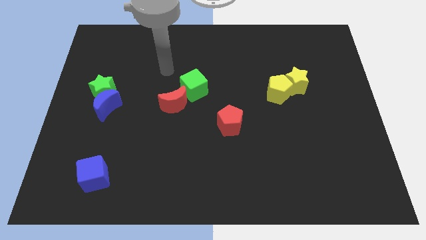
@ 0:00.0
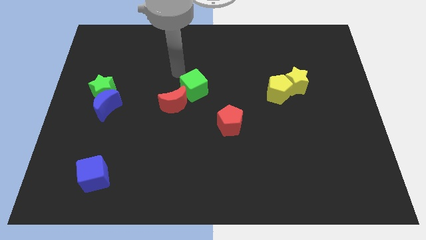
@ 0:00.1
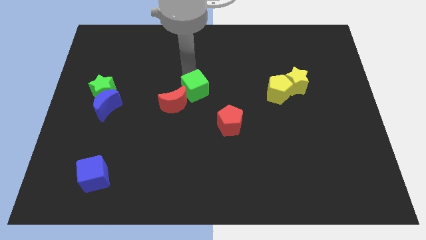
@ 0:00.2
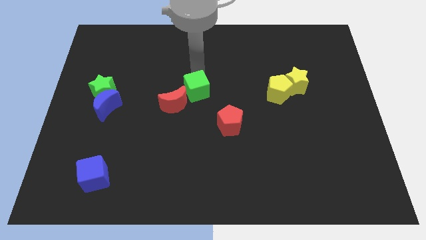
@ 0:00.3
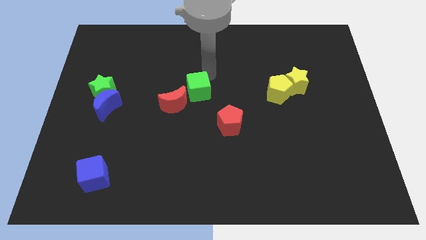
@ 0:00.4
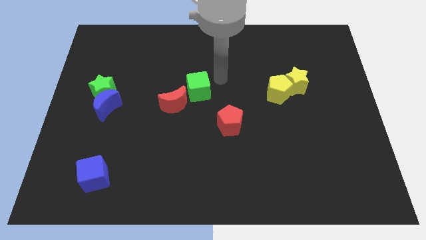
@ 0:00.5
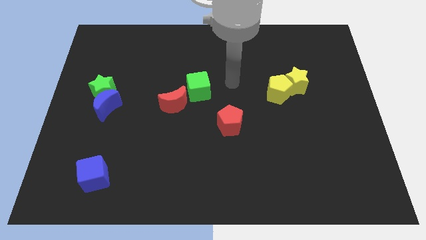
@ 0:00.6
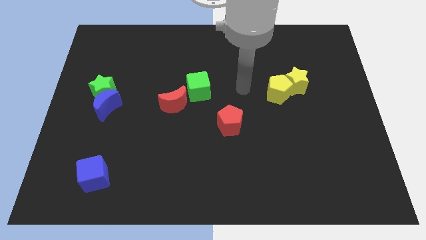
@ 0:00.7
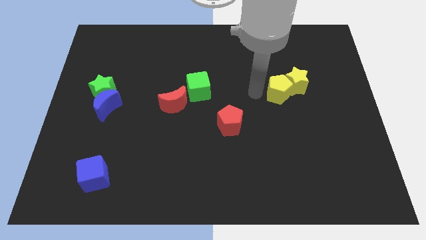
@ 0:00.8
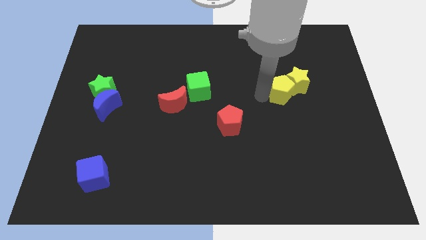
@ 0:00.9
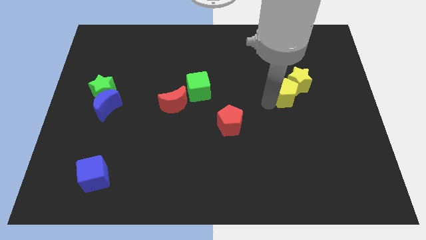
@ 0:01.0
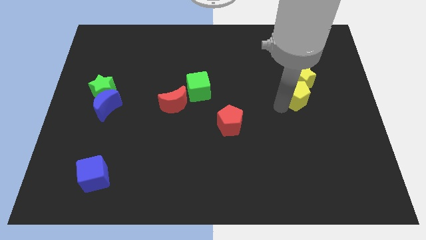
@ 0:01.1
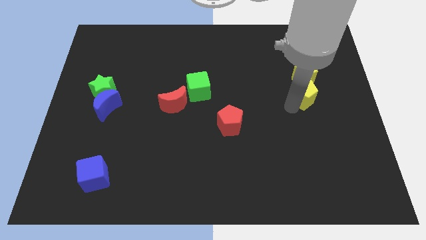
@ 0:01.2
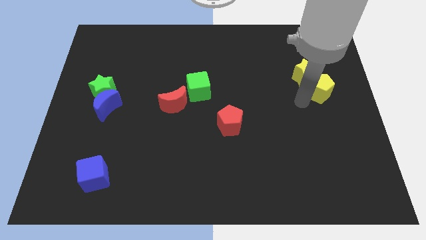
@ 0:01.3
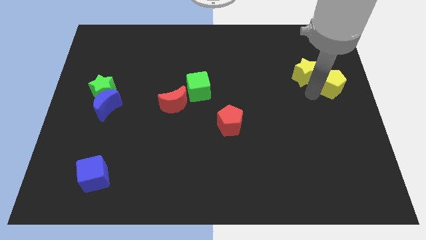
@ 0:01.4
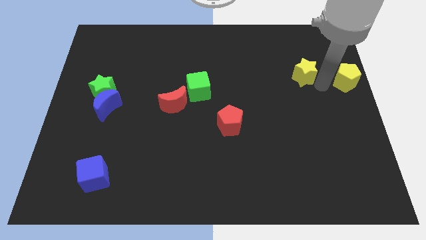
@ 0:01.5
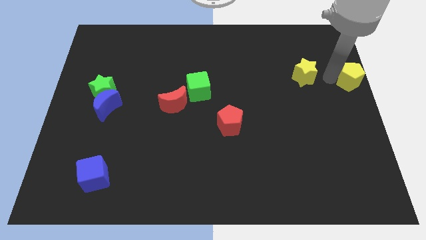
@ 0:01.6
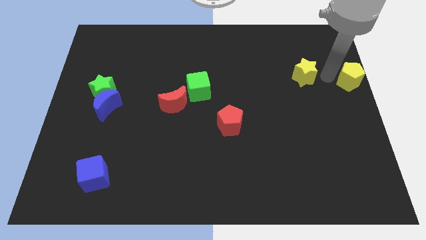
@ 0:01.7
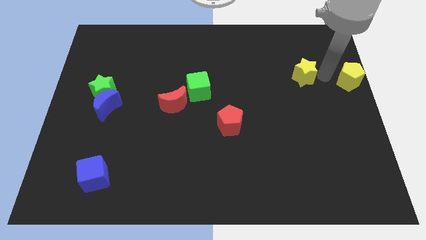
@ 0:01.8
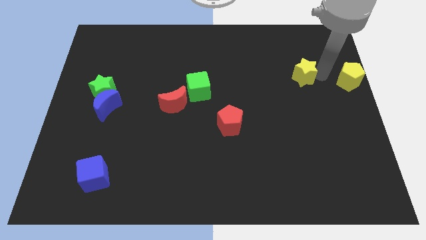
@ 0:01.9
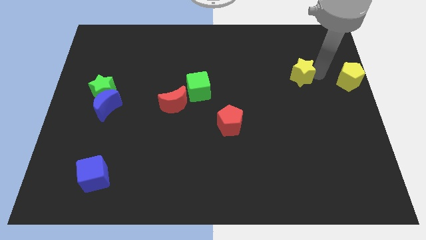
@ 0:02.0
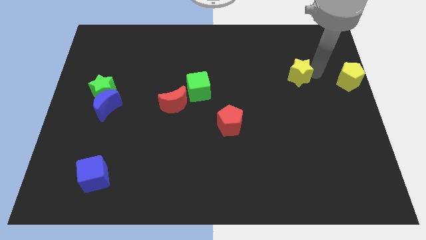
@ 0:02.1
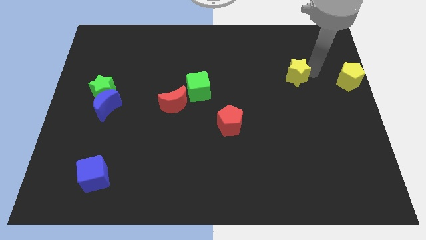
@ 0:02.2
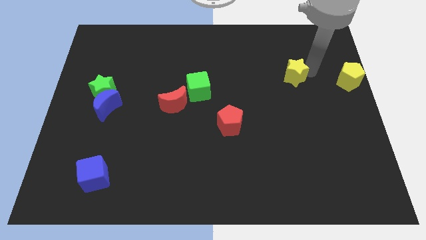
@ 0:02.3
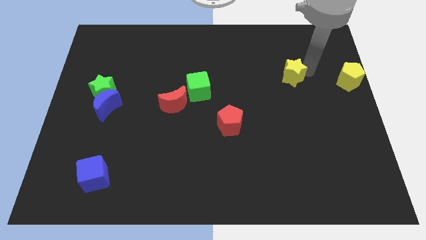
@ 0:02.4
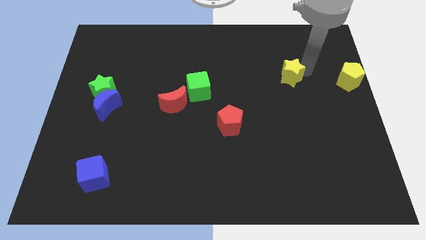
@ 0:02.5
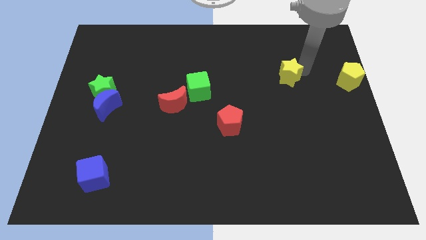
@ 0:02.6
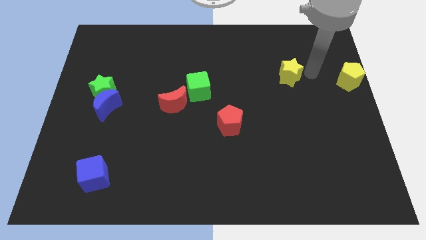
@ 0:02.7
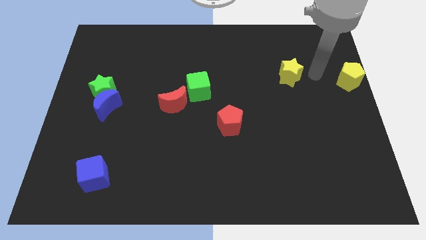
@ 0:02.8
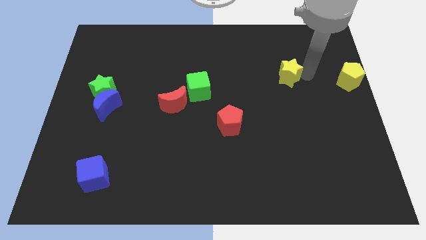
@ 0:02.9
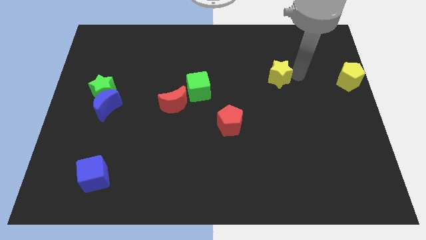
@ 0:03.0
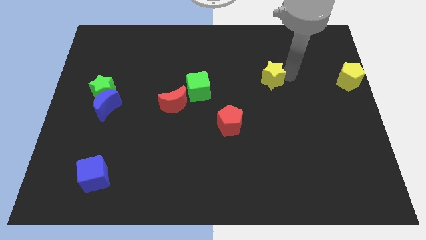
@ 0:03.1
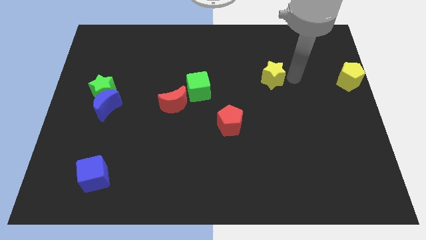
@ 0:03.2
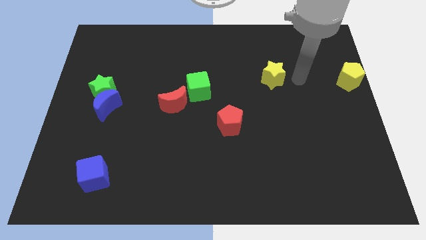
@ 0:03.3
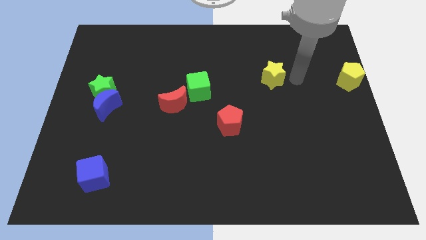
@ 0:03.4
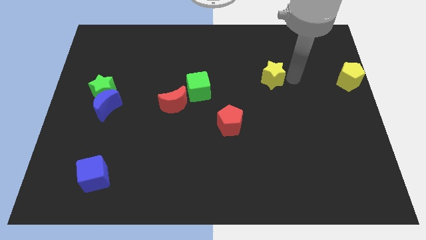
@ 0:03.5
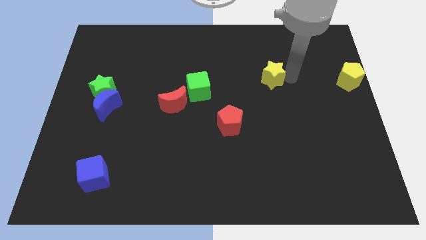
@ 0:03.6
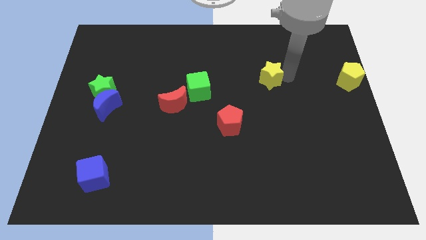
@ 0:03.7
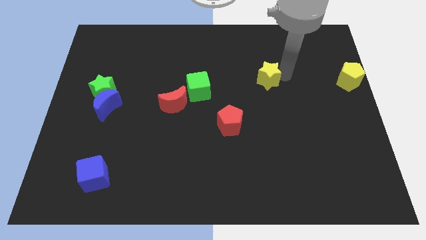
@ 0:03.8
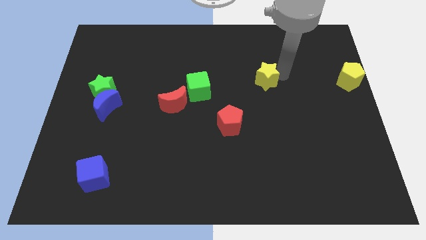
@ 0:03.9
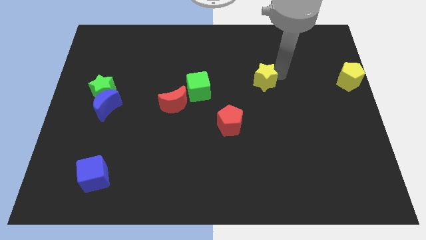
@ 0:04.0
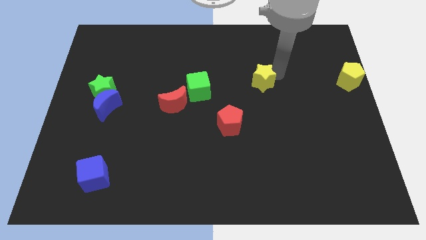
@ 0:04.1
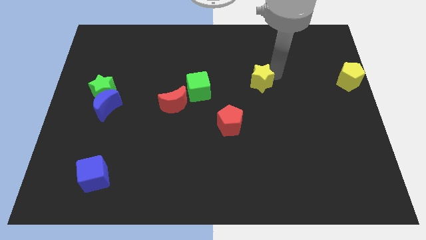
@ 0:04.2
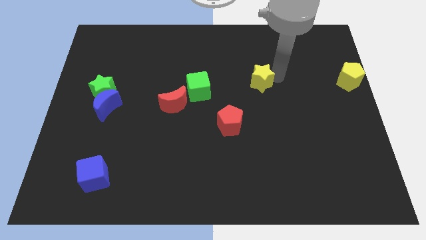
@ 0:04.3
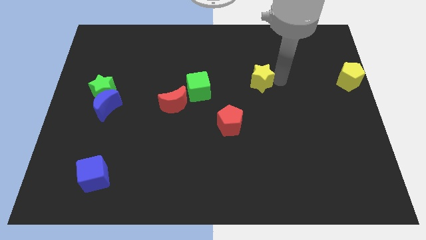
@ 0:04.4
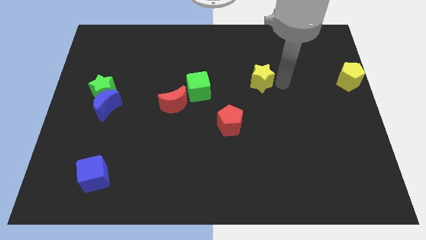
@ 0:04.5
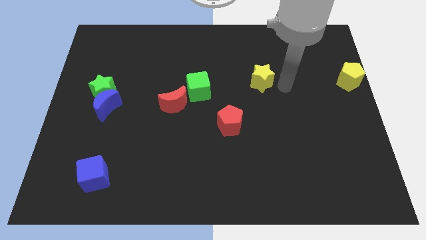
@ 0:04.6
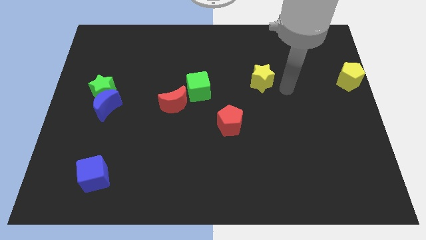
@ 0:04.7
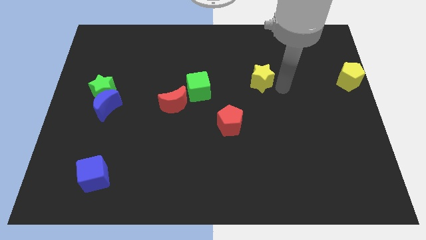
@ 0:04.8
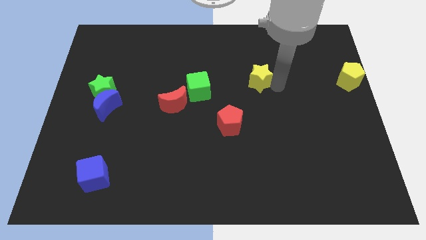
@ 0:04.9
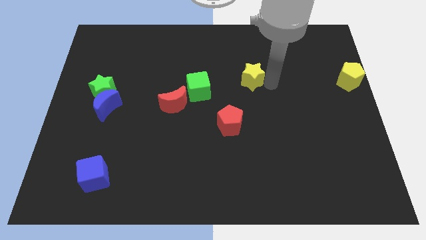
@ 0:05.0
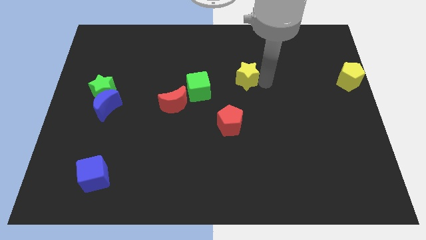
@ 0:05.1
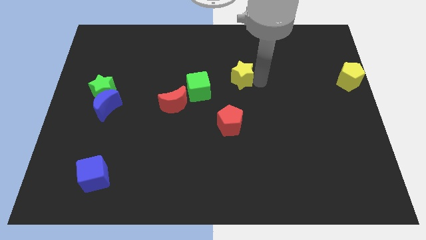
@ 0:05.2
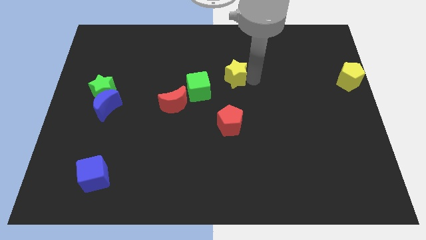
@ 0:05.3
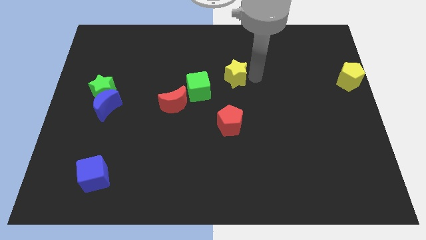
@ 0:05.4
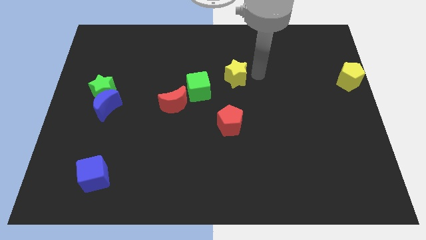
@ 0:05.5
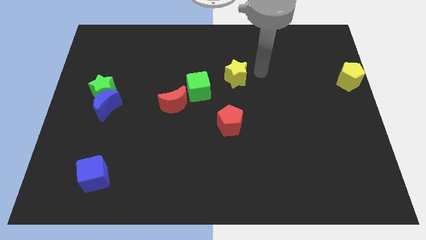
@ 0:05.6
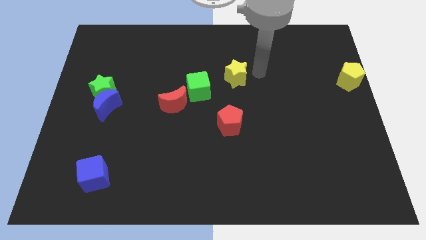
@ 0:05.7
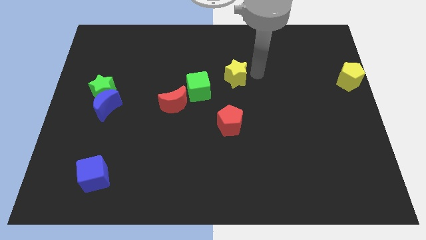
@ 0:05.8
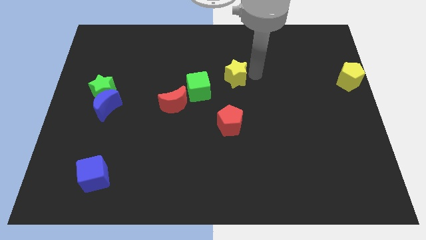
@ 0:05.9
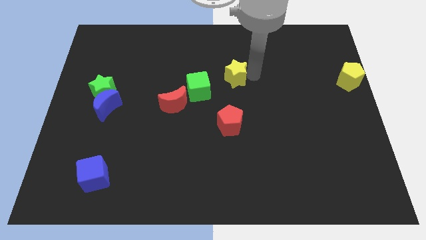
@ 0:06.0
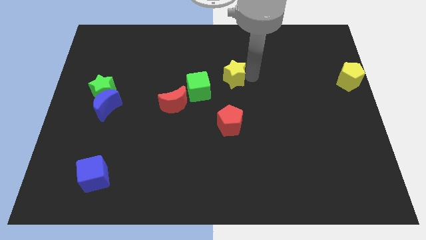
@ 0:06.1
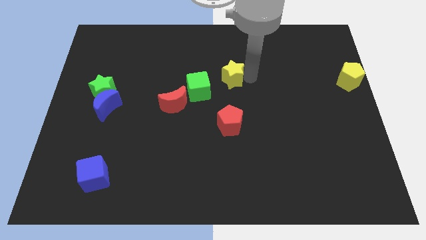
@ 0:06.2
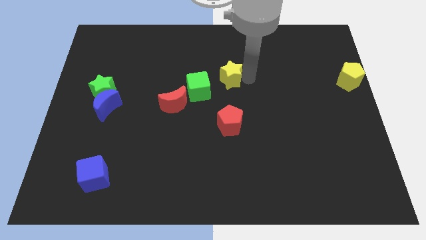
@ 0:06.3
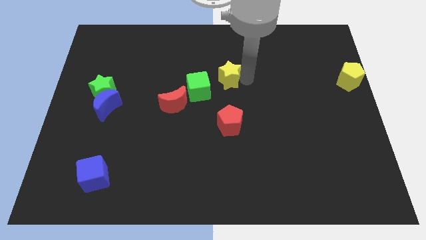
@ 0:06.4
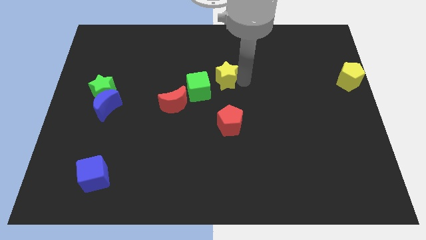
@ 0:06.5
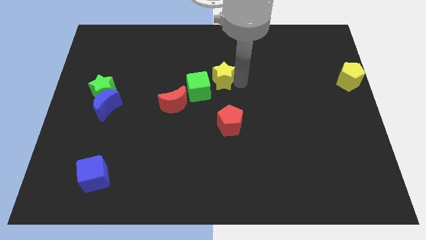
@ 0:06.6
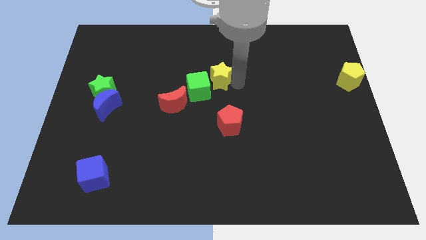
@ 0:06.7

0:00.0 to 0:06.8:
move the yellow star next to the green cube
